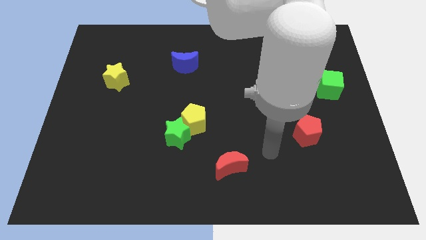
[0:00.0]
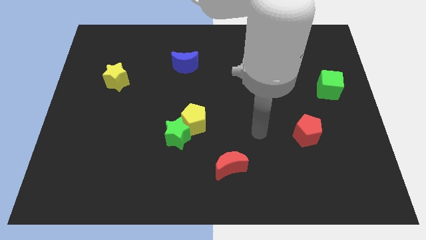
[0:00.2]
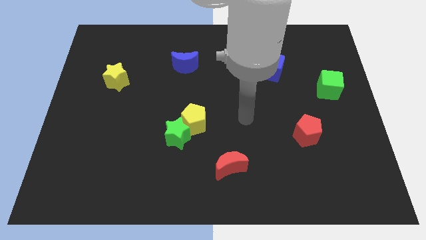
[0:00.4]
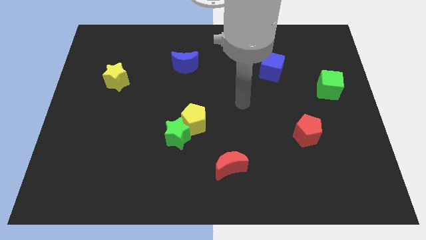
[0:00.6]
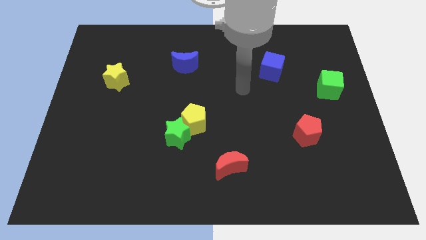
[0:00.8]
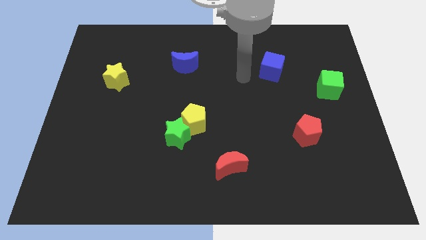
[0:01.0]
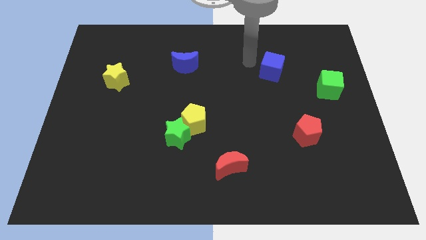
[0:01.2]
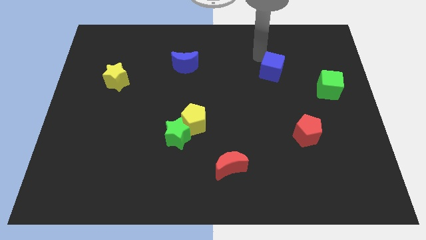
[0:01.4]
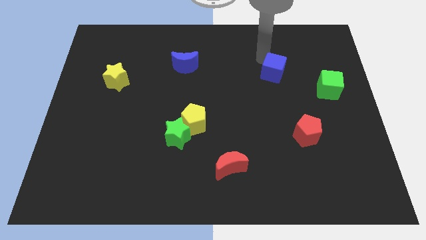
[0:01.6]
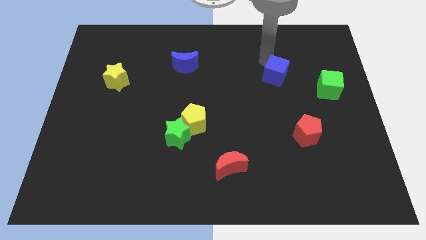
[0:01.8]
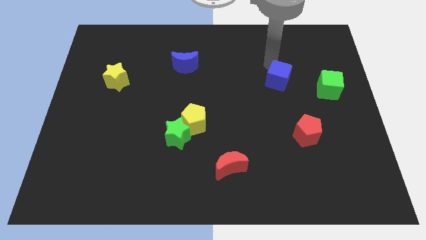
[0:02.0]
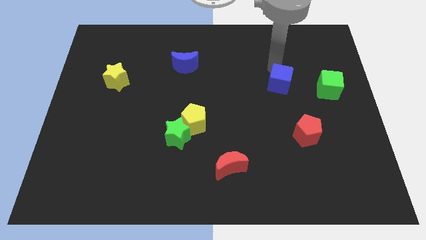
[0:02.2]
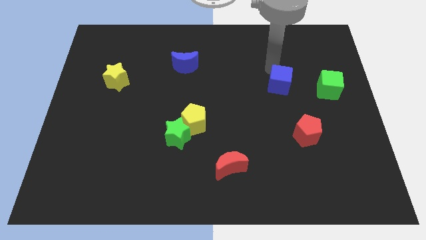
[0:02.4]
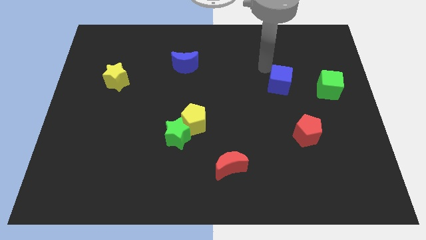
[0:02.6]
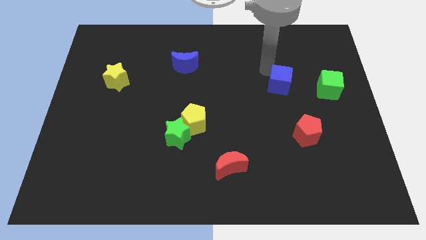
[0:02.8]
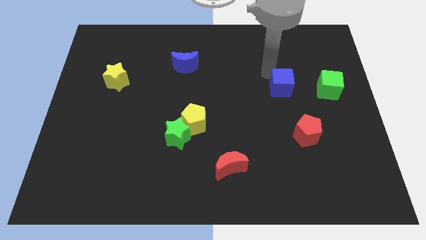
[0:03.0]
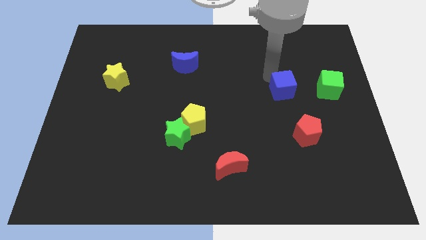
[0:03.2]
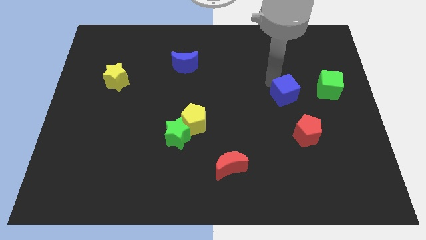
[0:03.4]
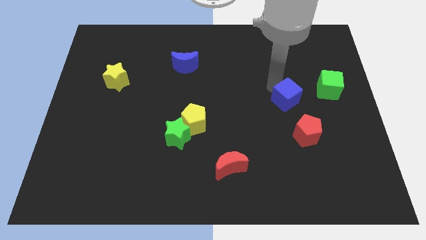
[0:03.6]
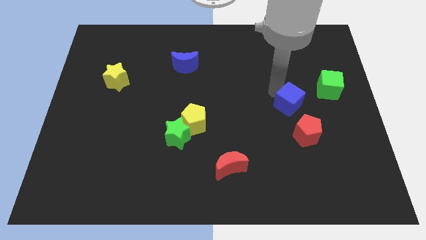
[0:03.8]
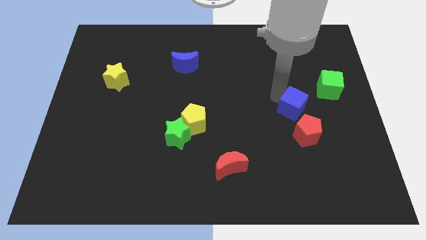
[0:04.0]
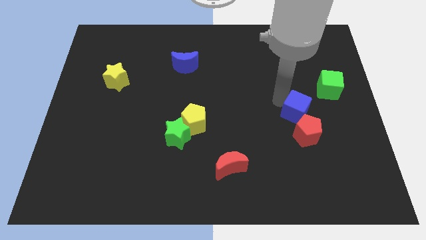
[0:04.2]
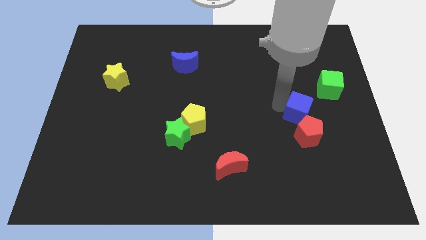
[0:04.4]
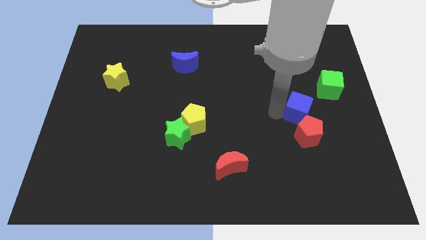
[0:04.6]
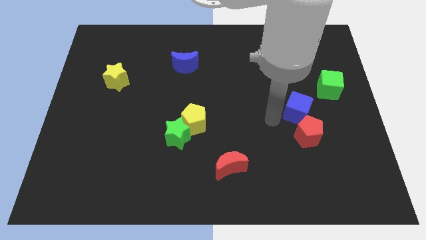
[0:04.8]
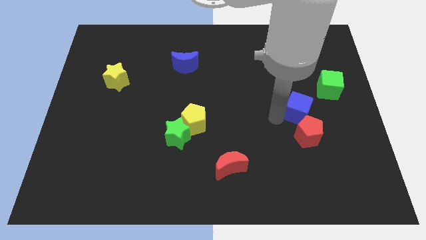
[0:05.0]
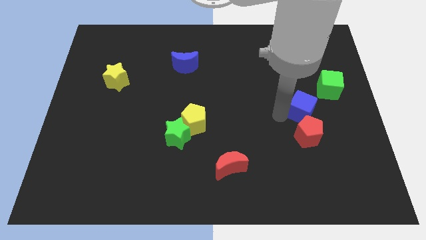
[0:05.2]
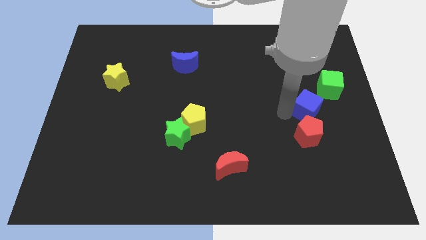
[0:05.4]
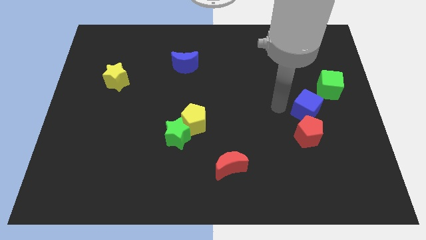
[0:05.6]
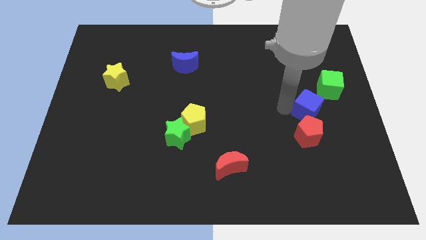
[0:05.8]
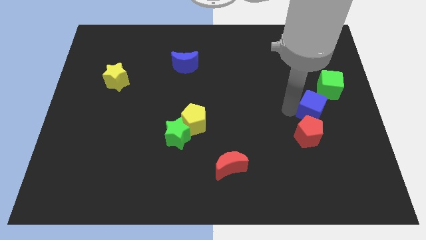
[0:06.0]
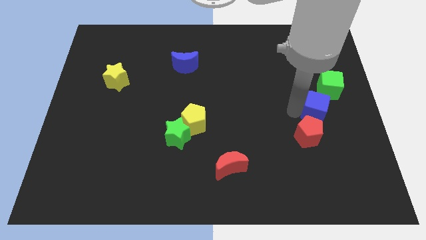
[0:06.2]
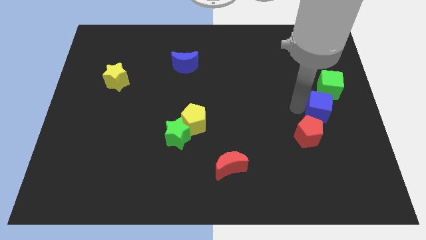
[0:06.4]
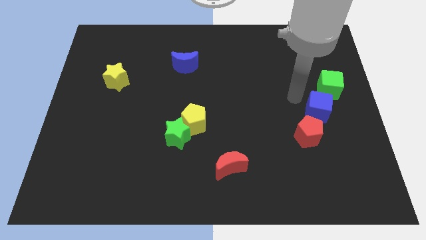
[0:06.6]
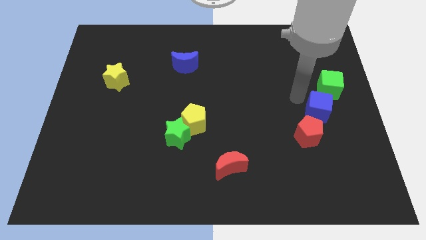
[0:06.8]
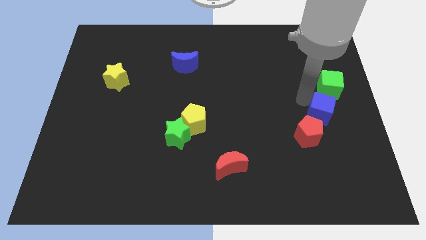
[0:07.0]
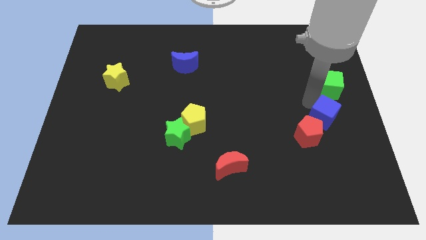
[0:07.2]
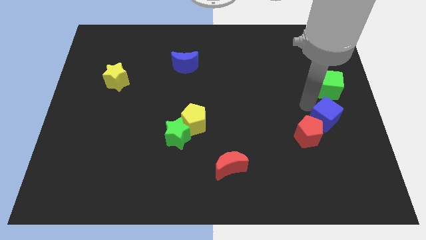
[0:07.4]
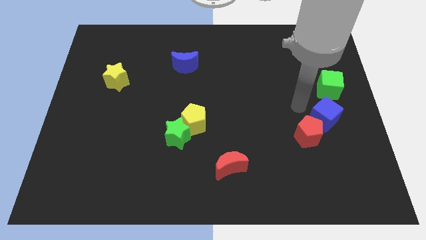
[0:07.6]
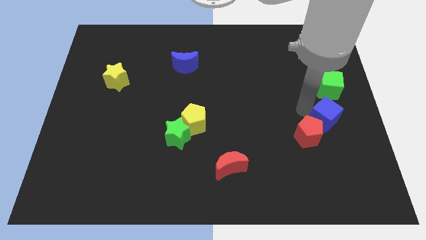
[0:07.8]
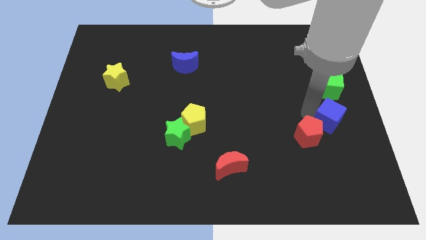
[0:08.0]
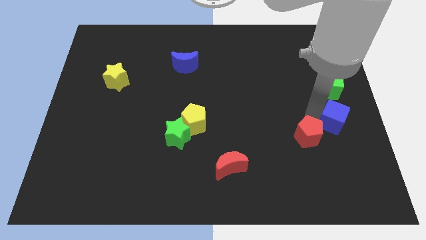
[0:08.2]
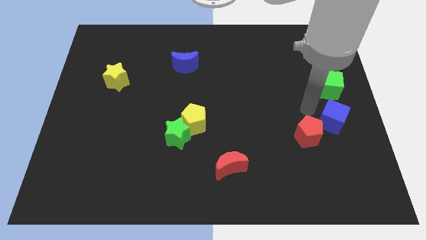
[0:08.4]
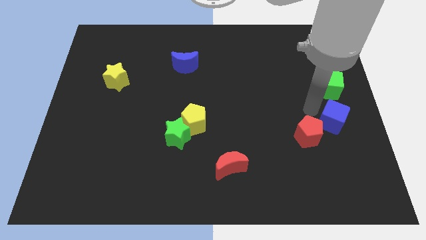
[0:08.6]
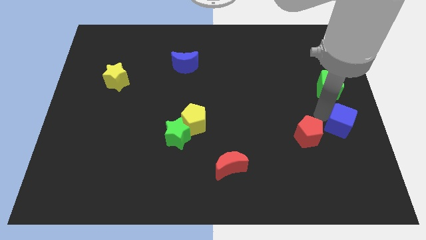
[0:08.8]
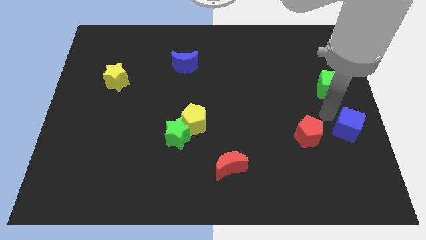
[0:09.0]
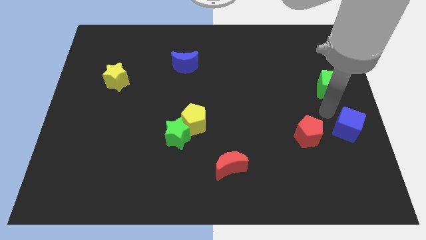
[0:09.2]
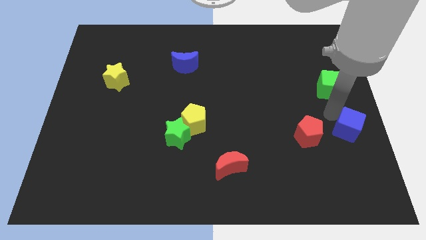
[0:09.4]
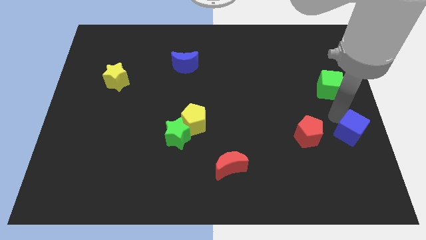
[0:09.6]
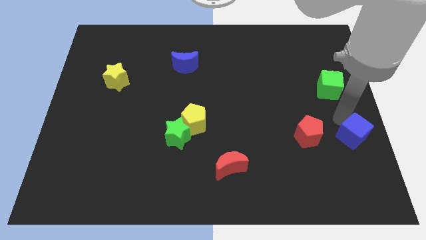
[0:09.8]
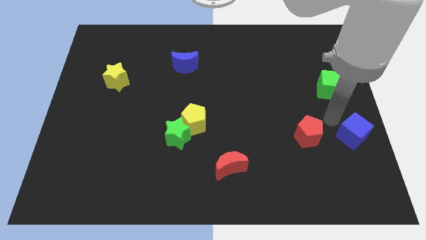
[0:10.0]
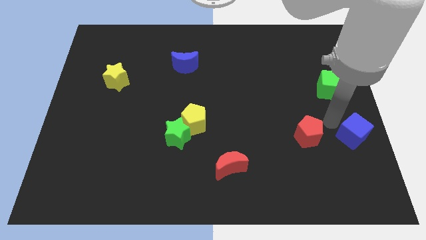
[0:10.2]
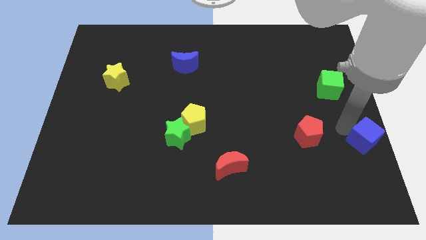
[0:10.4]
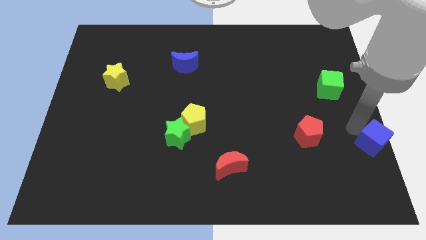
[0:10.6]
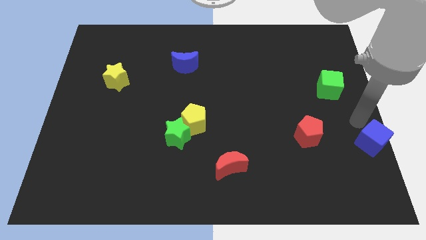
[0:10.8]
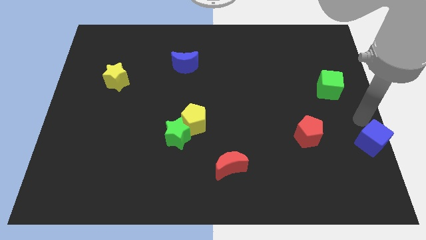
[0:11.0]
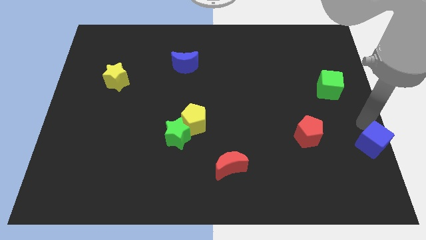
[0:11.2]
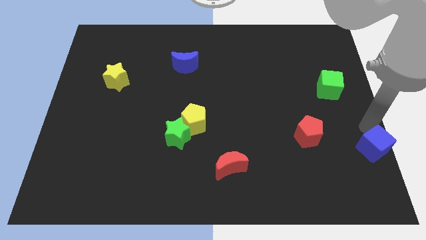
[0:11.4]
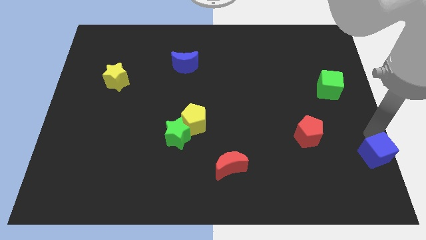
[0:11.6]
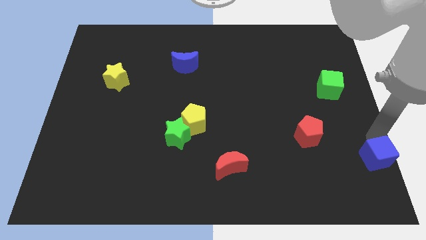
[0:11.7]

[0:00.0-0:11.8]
put the blue cube to the lower right corner

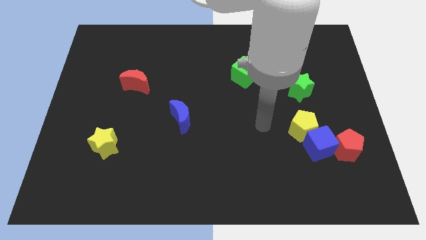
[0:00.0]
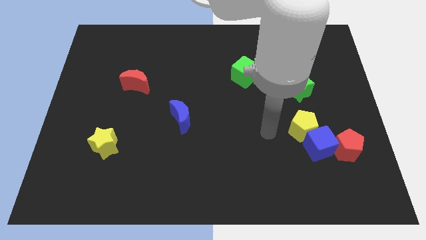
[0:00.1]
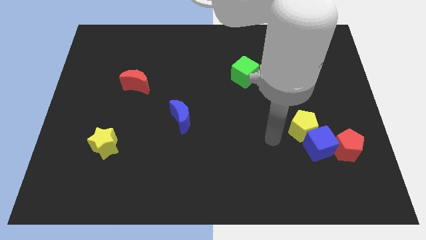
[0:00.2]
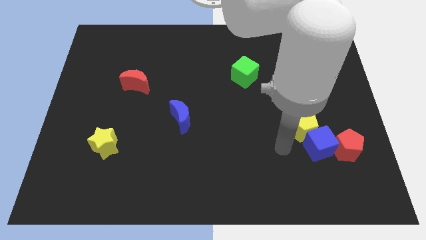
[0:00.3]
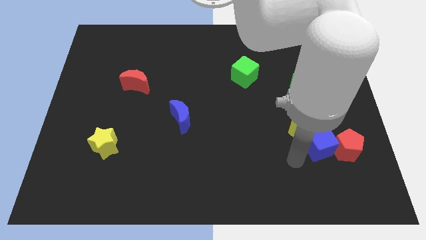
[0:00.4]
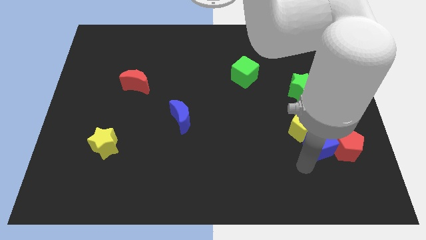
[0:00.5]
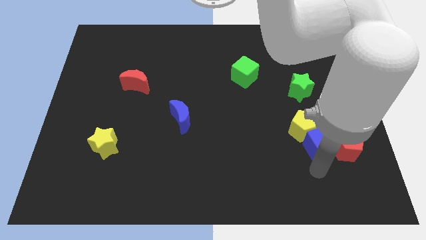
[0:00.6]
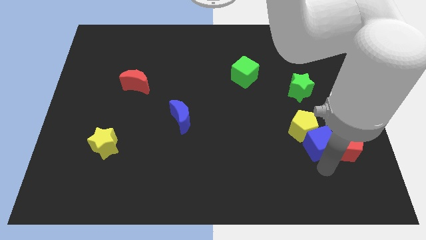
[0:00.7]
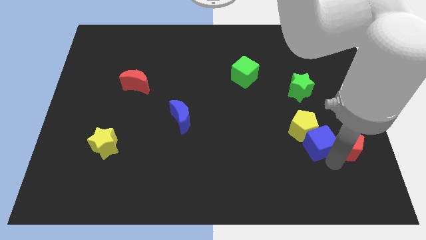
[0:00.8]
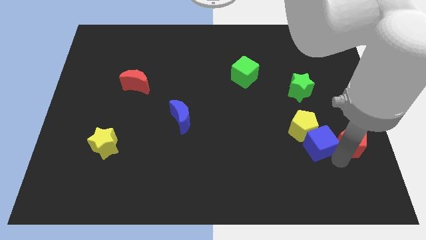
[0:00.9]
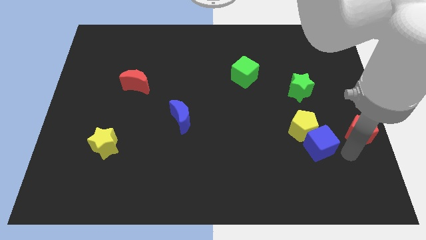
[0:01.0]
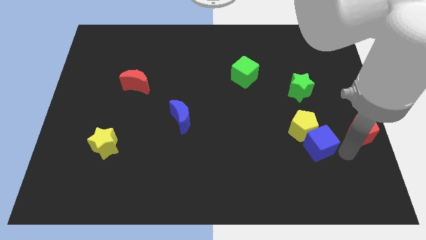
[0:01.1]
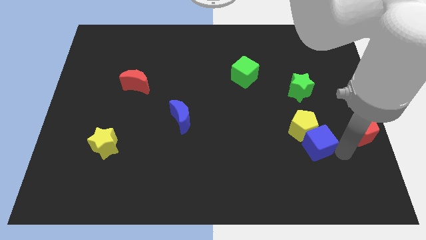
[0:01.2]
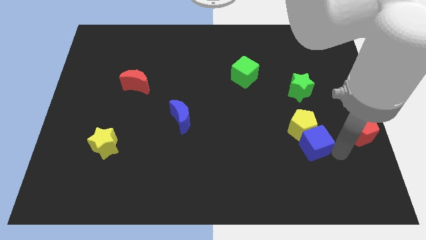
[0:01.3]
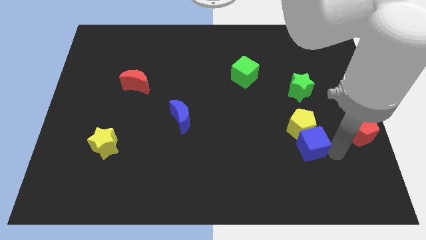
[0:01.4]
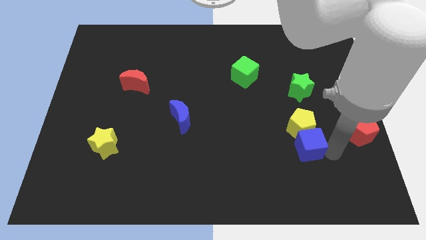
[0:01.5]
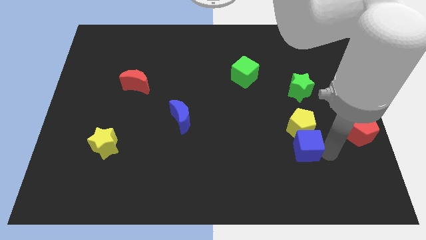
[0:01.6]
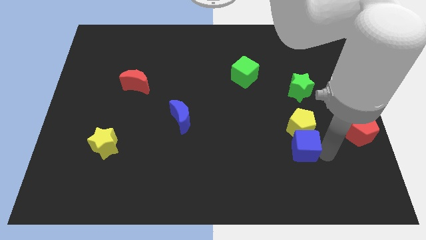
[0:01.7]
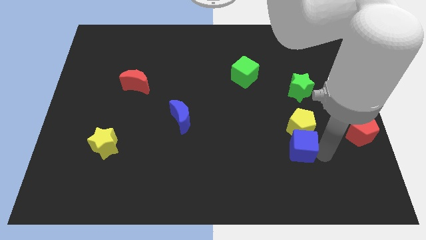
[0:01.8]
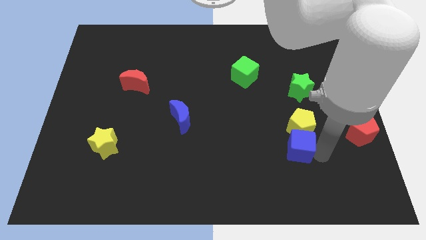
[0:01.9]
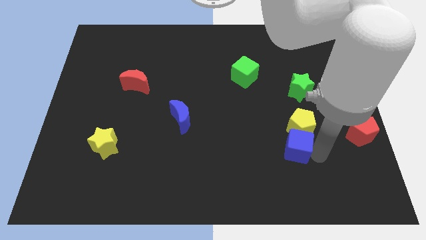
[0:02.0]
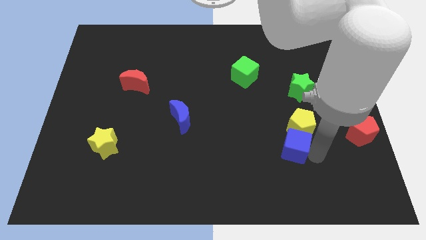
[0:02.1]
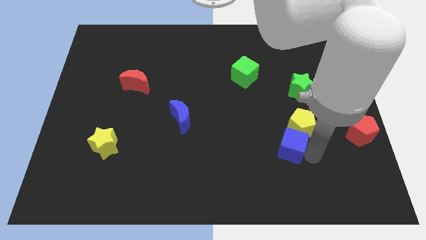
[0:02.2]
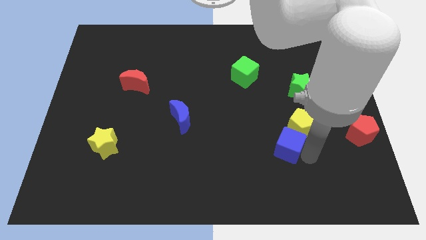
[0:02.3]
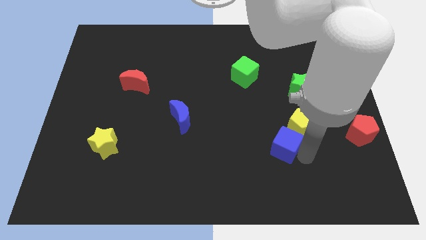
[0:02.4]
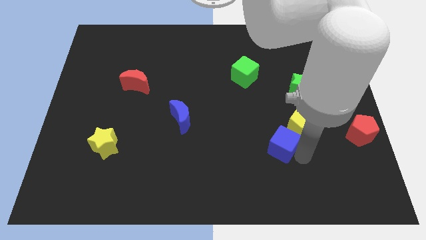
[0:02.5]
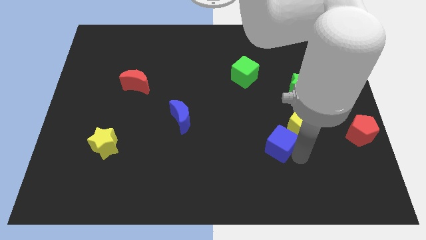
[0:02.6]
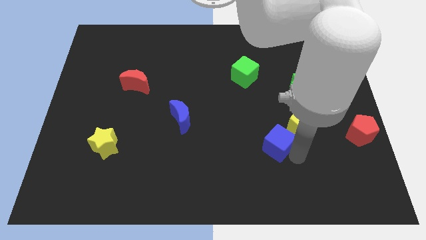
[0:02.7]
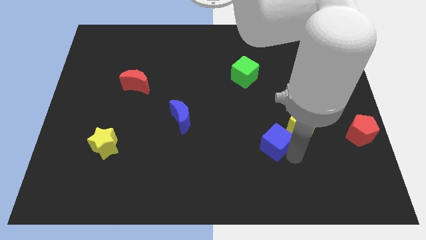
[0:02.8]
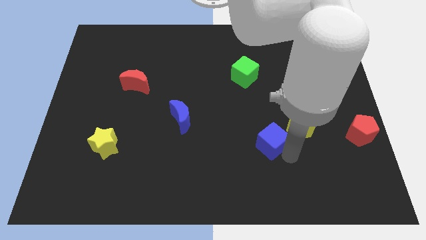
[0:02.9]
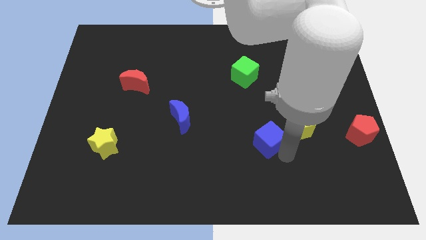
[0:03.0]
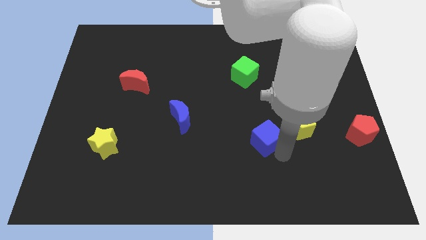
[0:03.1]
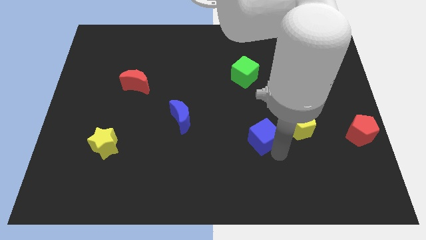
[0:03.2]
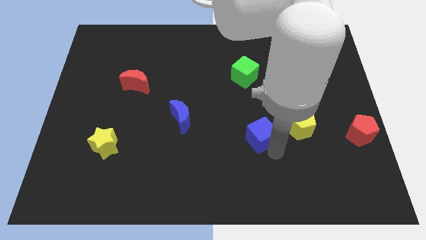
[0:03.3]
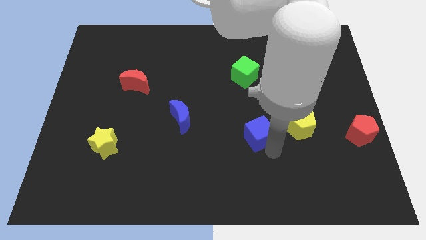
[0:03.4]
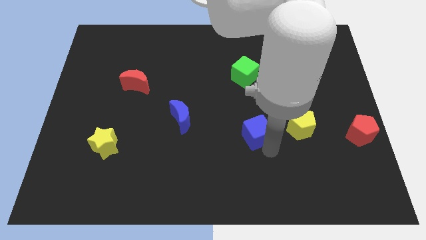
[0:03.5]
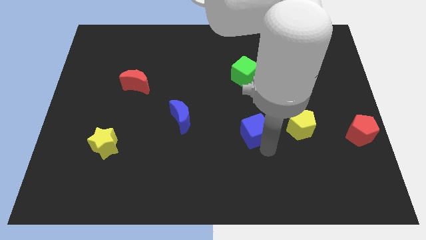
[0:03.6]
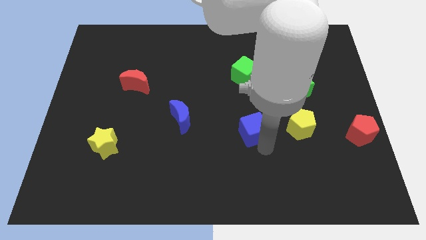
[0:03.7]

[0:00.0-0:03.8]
push the blue cube to the middle
